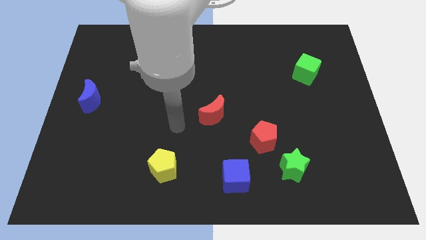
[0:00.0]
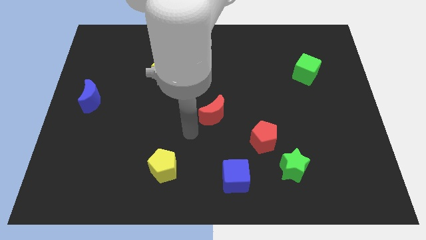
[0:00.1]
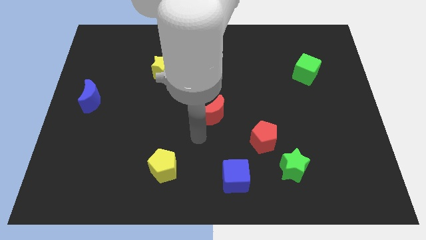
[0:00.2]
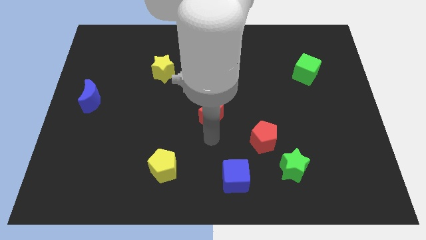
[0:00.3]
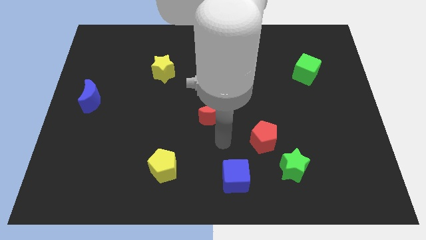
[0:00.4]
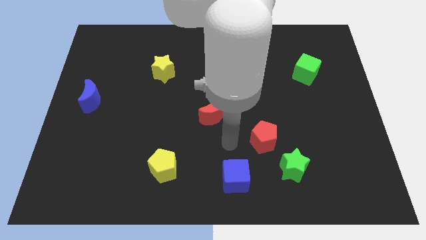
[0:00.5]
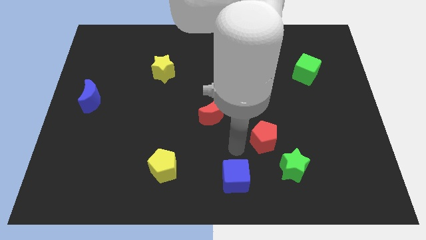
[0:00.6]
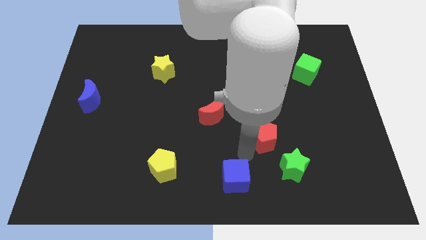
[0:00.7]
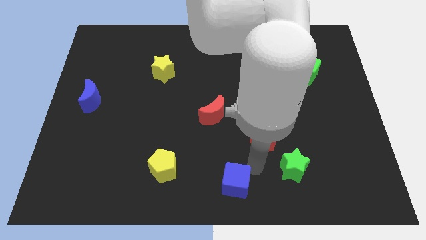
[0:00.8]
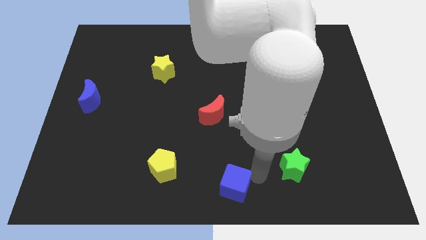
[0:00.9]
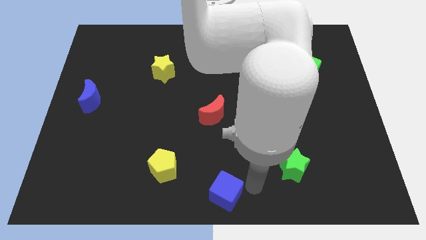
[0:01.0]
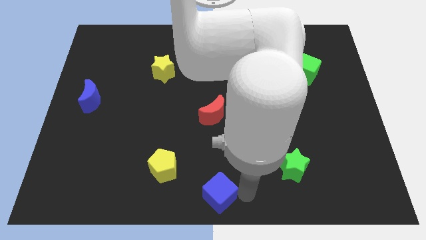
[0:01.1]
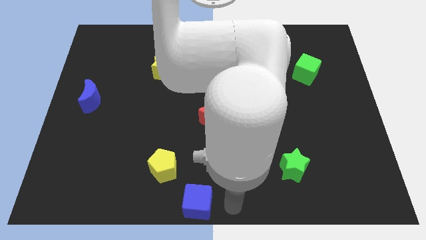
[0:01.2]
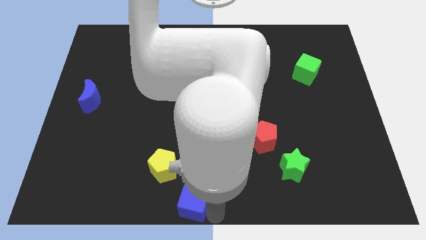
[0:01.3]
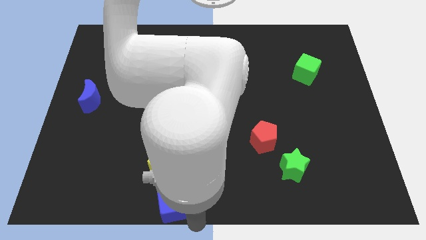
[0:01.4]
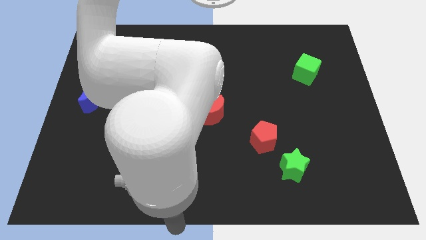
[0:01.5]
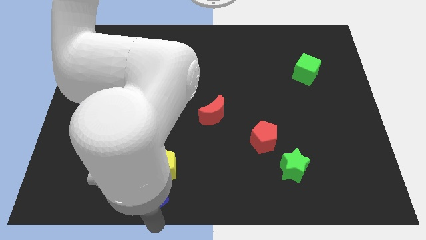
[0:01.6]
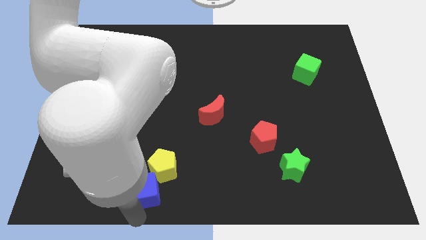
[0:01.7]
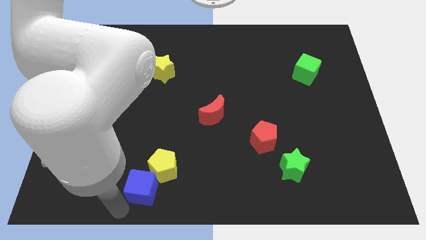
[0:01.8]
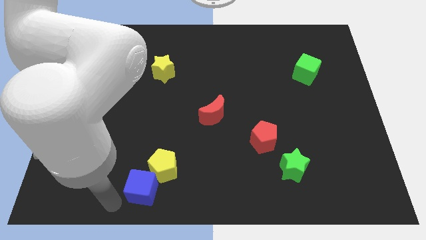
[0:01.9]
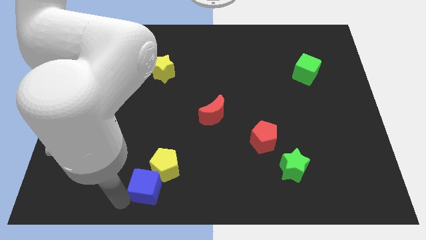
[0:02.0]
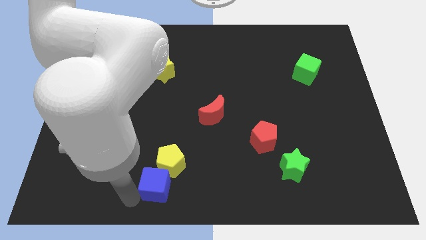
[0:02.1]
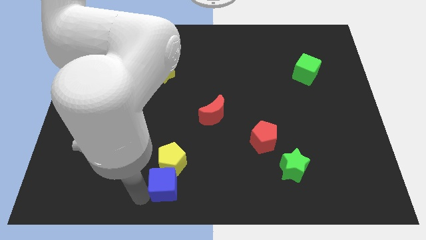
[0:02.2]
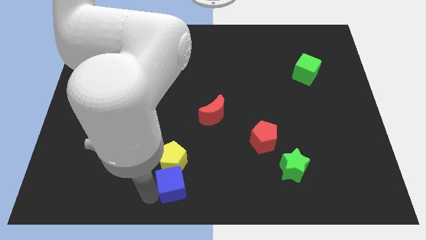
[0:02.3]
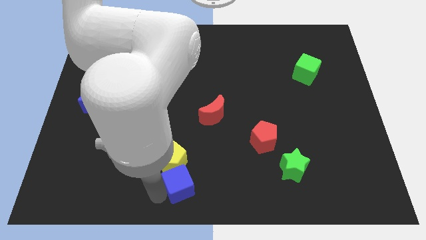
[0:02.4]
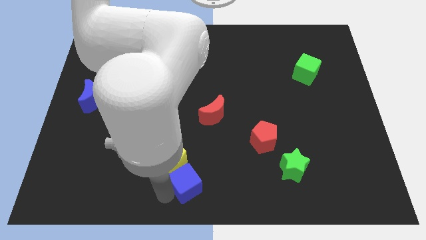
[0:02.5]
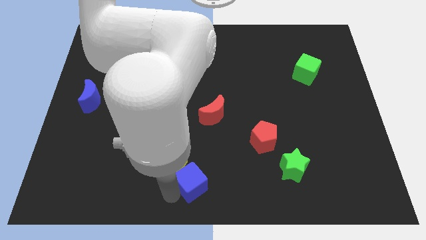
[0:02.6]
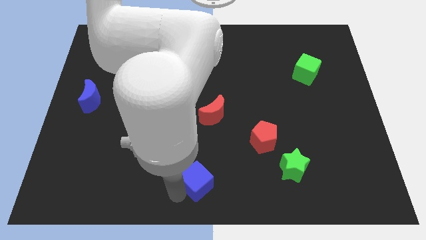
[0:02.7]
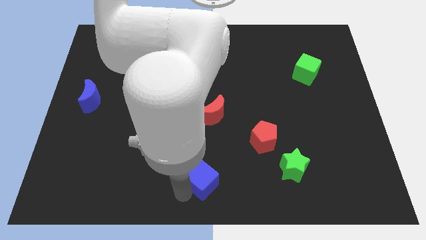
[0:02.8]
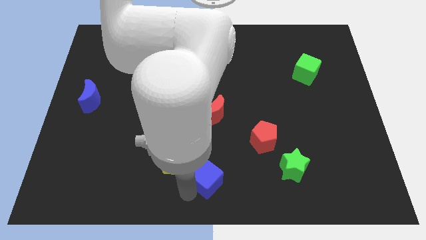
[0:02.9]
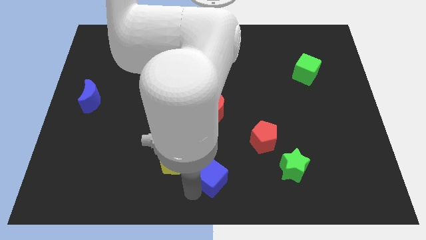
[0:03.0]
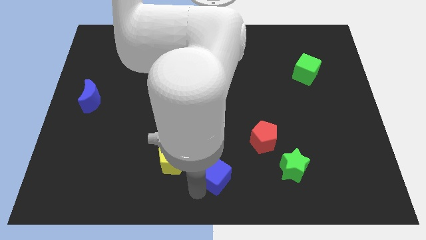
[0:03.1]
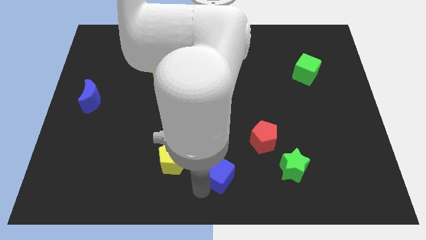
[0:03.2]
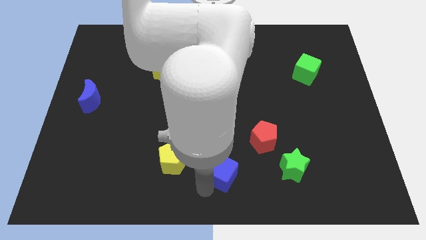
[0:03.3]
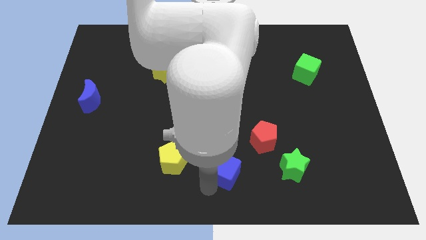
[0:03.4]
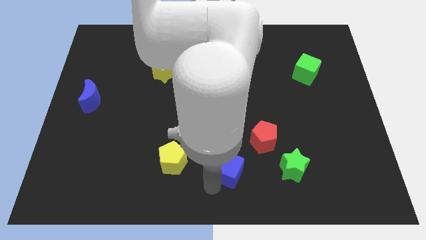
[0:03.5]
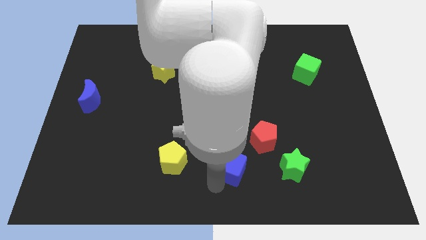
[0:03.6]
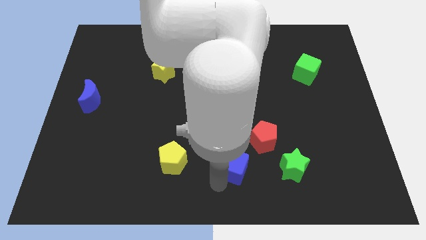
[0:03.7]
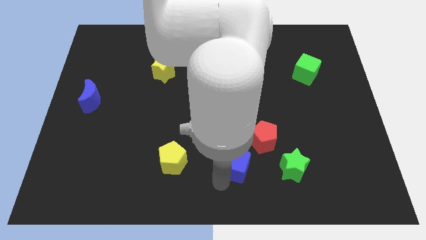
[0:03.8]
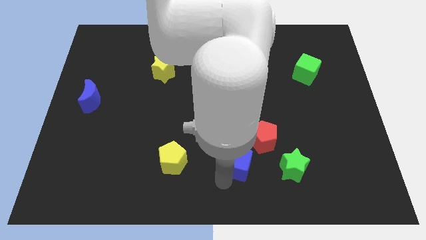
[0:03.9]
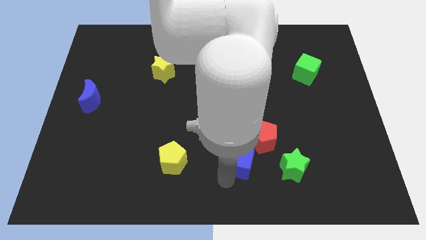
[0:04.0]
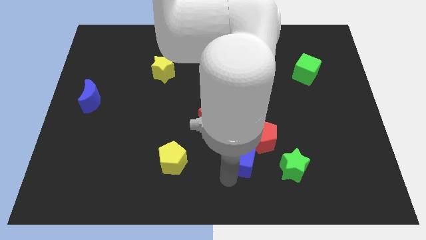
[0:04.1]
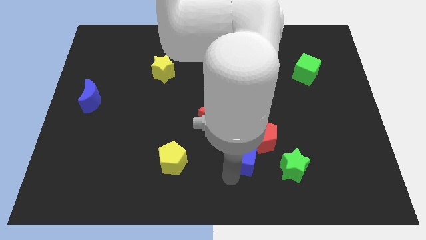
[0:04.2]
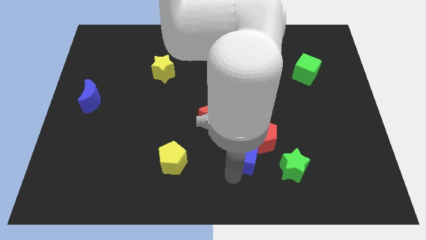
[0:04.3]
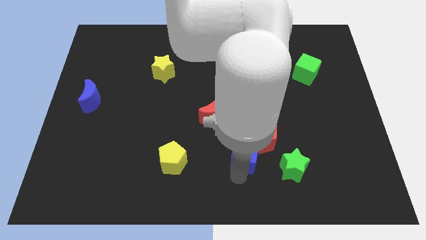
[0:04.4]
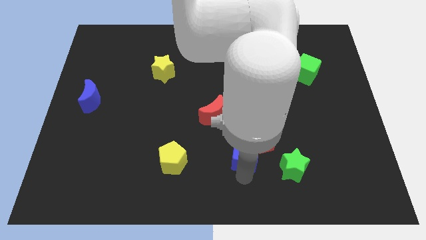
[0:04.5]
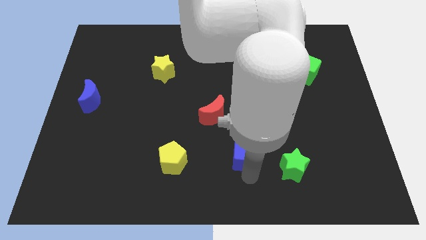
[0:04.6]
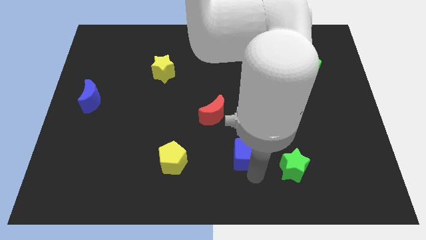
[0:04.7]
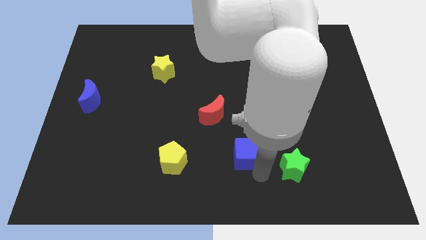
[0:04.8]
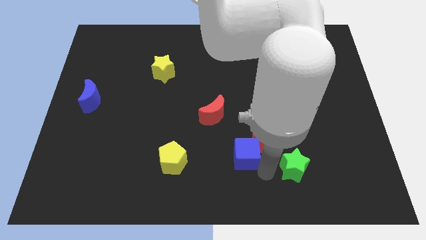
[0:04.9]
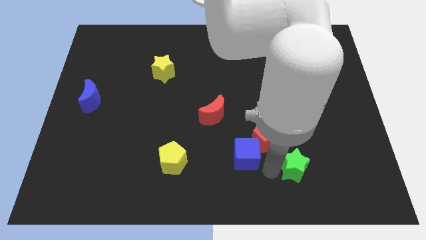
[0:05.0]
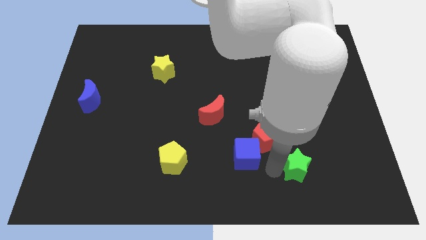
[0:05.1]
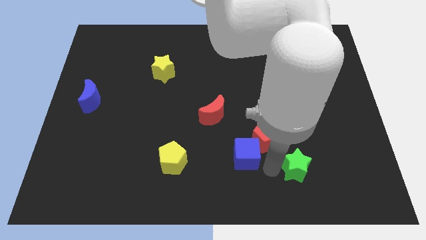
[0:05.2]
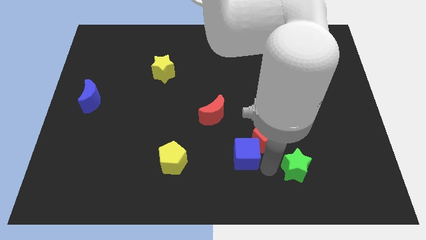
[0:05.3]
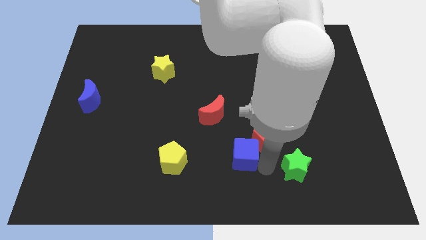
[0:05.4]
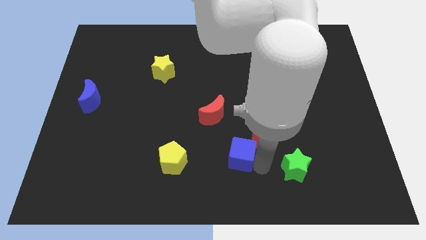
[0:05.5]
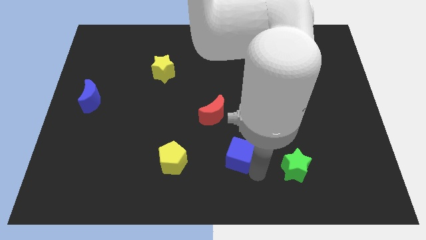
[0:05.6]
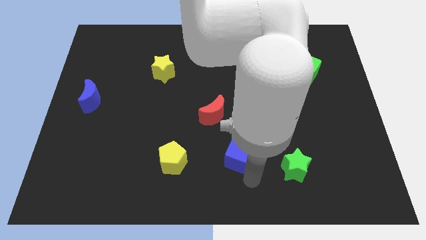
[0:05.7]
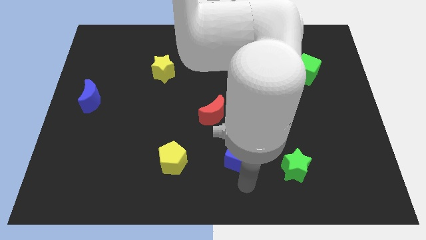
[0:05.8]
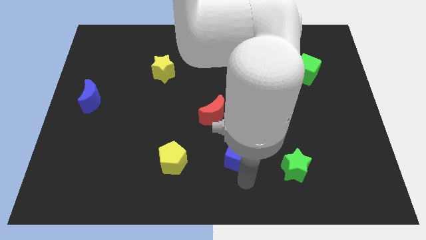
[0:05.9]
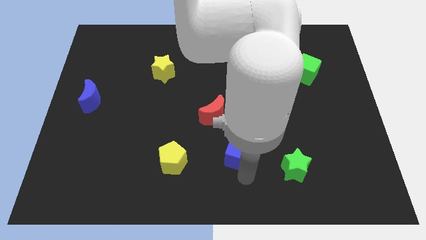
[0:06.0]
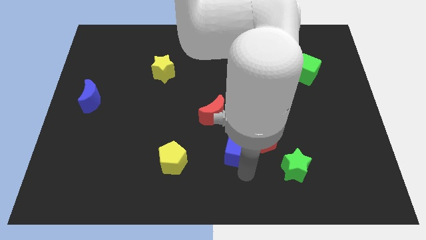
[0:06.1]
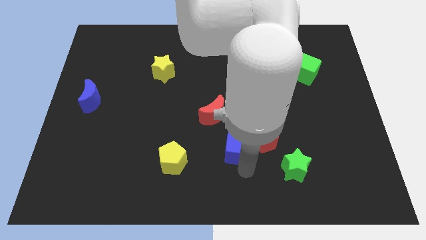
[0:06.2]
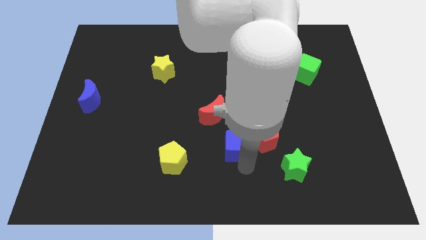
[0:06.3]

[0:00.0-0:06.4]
move the blue cube a little bit upwards

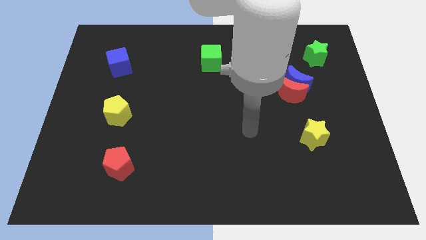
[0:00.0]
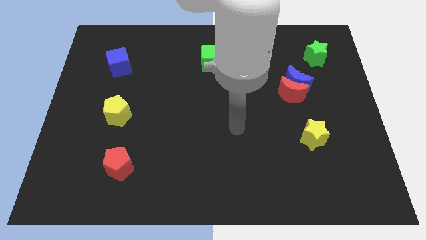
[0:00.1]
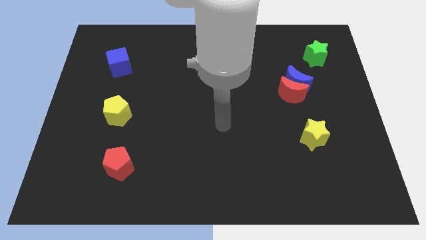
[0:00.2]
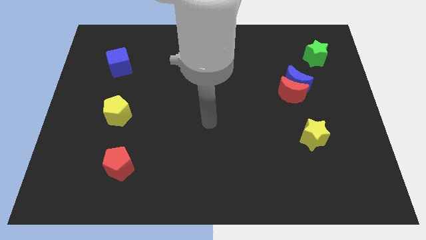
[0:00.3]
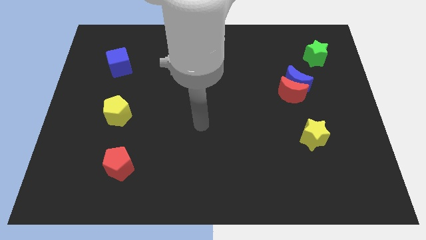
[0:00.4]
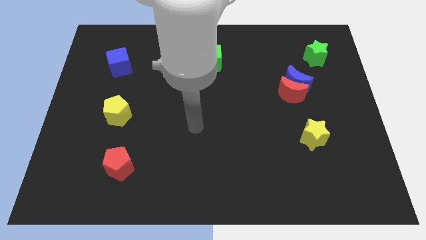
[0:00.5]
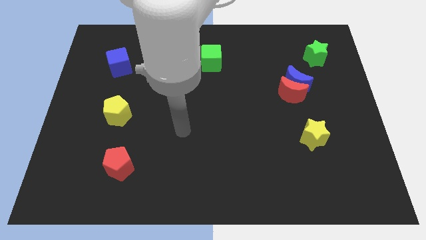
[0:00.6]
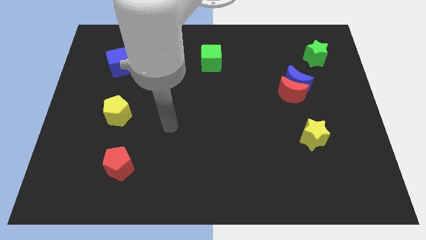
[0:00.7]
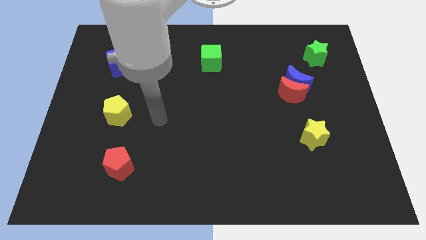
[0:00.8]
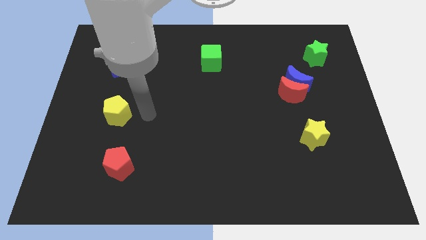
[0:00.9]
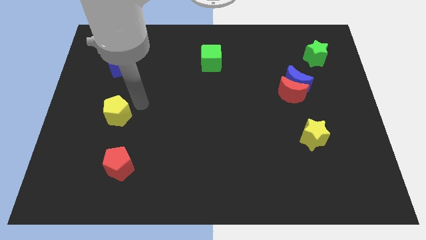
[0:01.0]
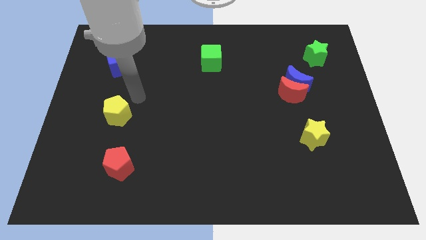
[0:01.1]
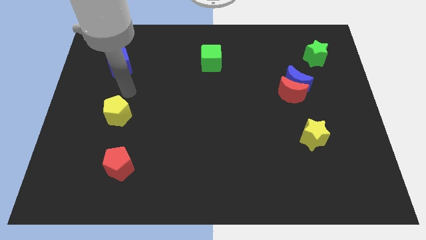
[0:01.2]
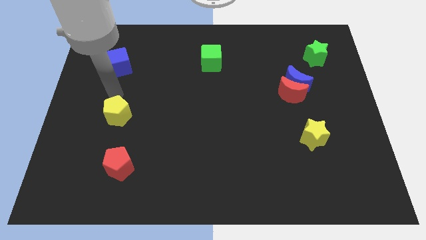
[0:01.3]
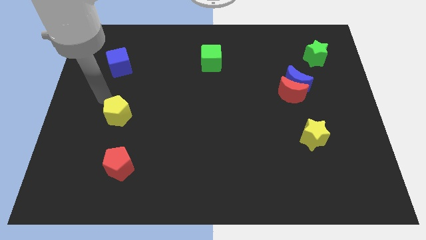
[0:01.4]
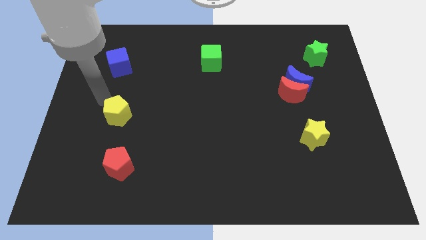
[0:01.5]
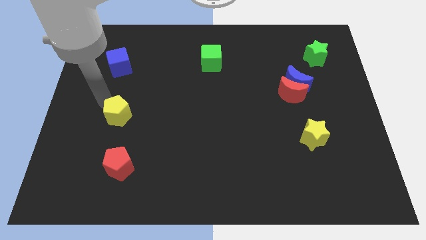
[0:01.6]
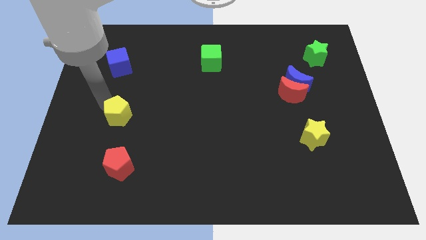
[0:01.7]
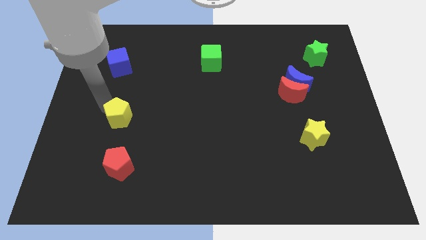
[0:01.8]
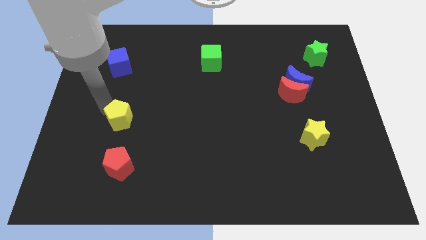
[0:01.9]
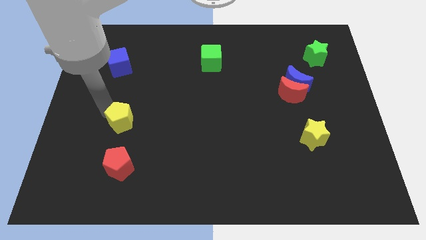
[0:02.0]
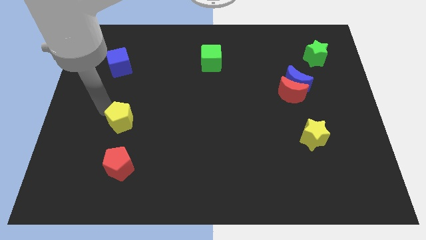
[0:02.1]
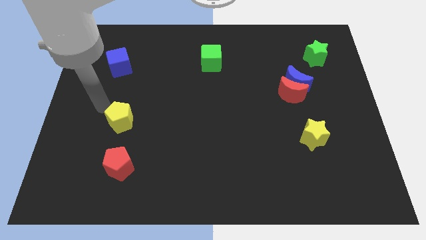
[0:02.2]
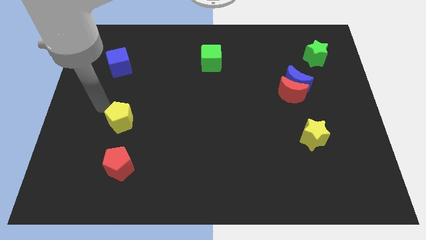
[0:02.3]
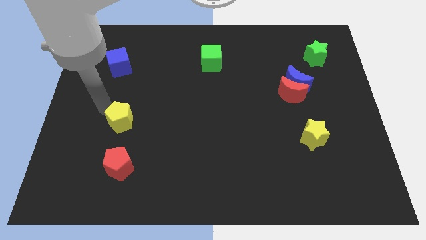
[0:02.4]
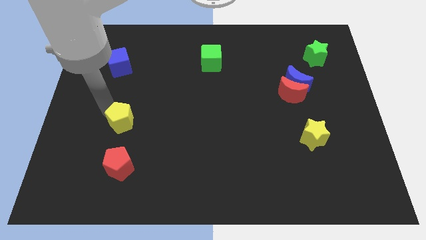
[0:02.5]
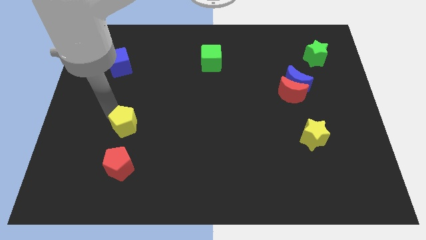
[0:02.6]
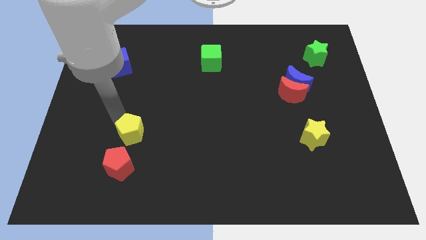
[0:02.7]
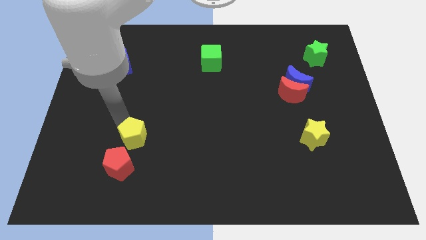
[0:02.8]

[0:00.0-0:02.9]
push the yellow pentagon a bit downwards and to the right
